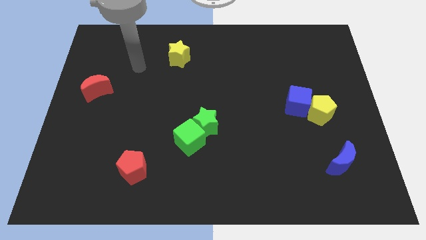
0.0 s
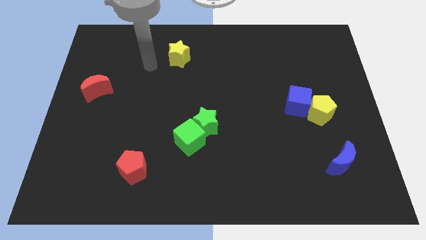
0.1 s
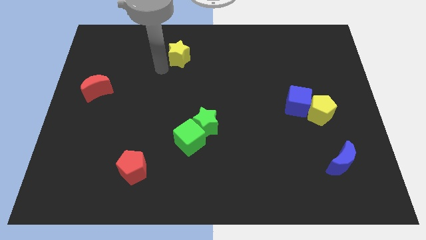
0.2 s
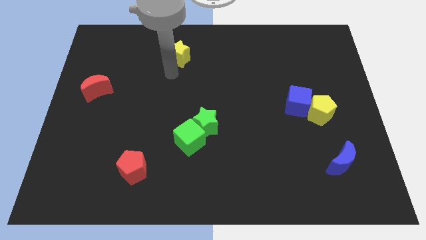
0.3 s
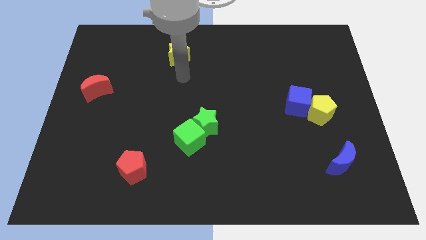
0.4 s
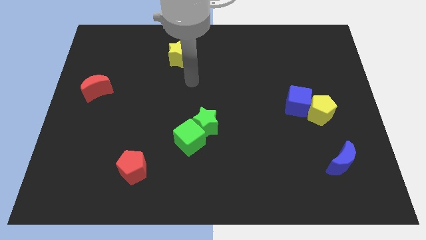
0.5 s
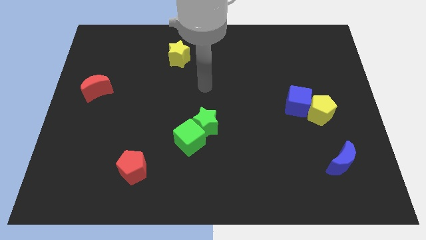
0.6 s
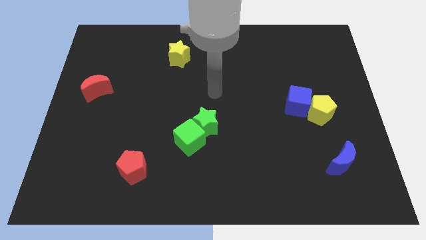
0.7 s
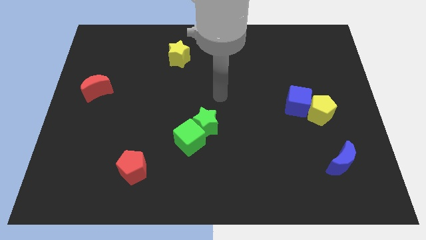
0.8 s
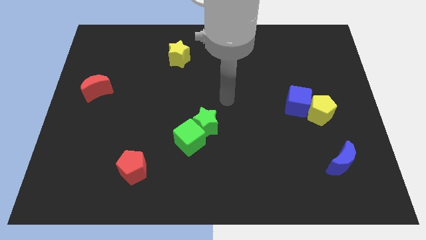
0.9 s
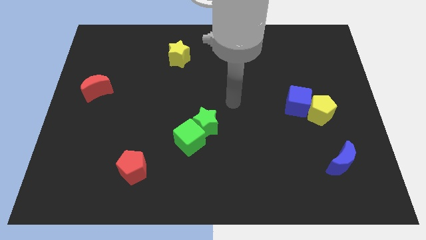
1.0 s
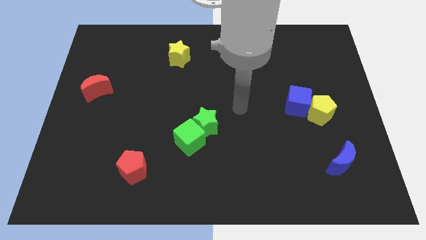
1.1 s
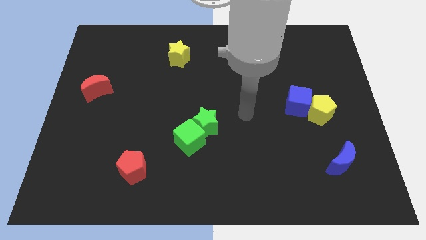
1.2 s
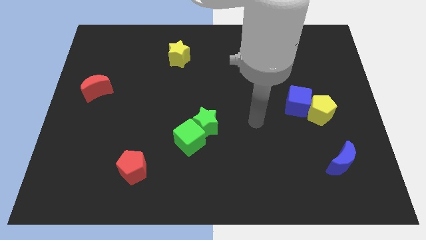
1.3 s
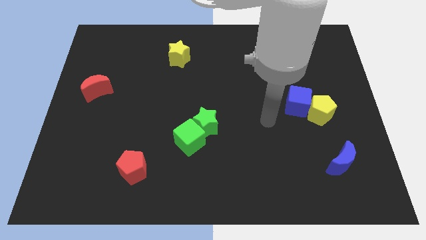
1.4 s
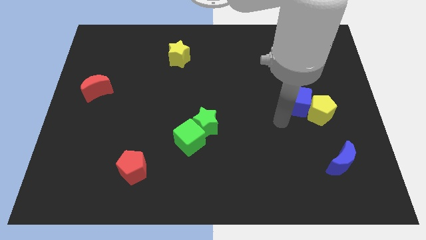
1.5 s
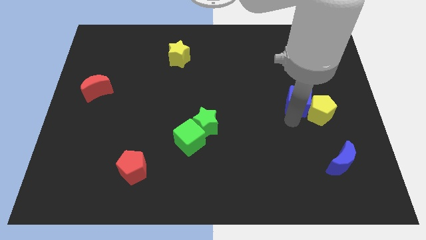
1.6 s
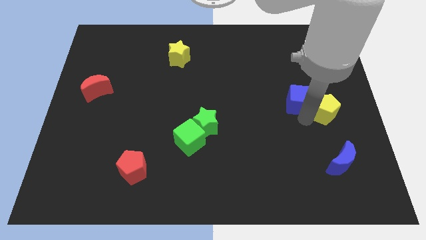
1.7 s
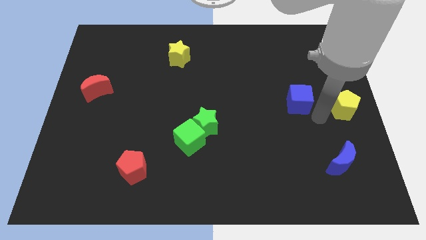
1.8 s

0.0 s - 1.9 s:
pull the blue cube apart from the yellow pentagon

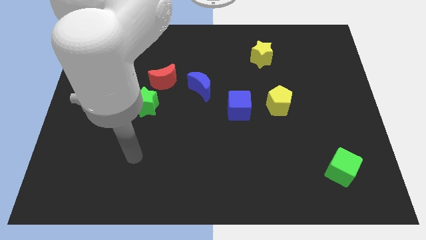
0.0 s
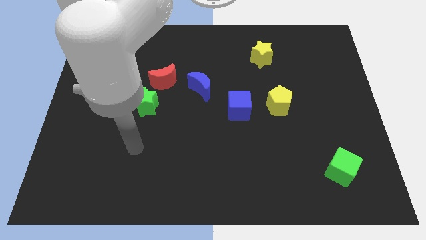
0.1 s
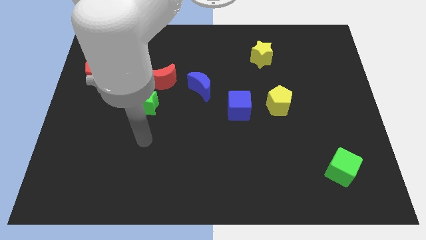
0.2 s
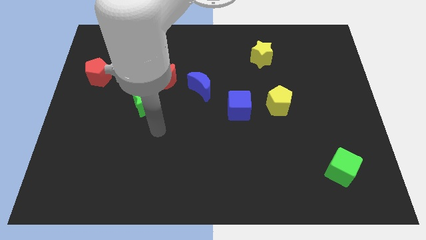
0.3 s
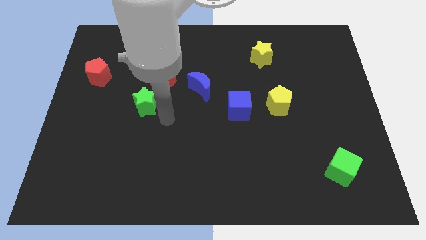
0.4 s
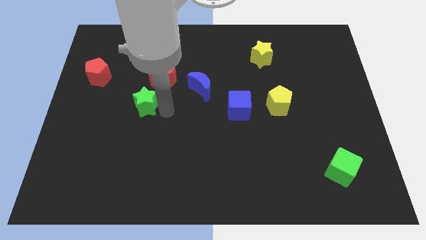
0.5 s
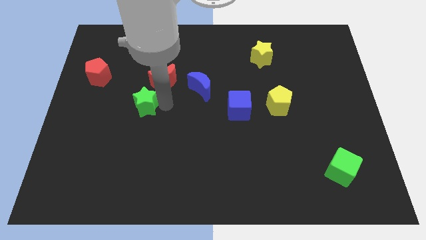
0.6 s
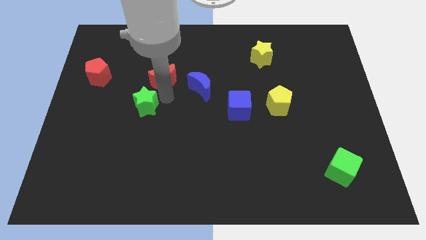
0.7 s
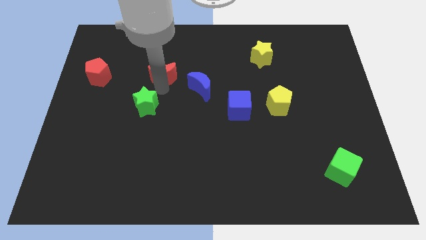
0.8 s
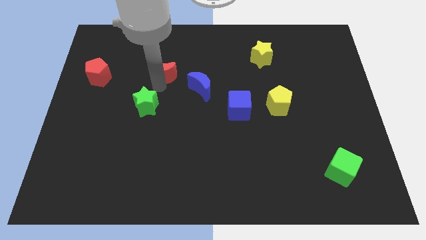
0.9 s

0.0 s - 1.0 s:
move the green star away from the red moon

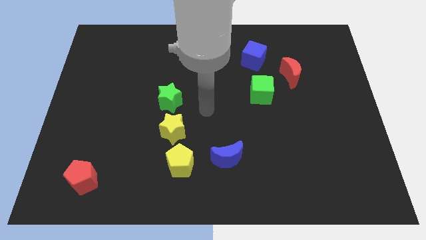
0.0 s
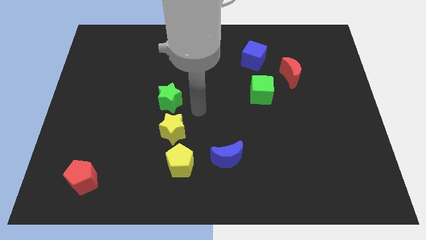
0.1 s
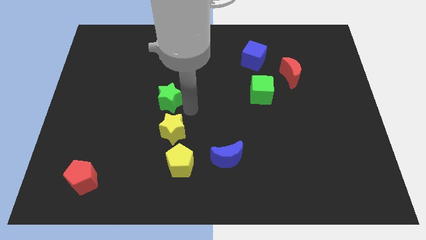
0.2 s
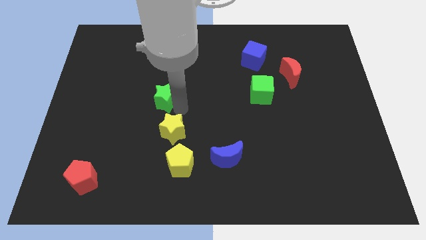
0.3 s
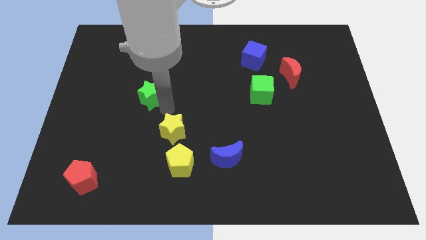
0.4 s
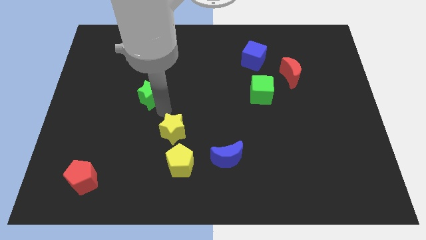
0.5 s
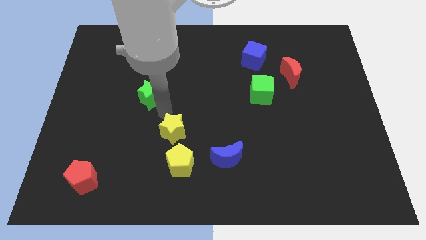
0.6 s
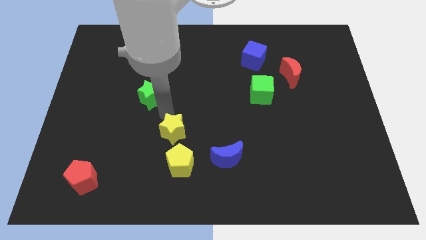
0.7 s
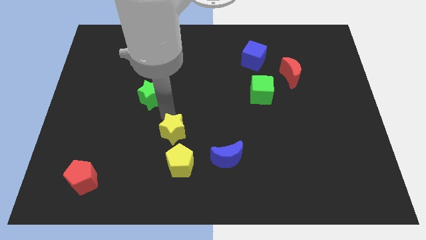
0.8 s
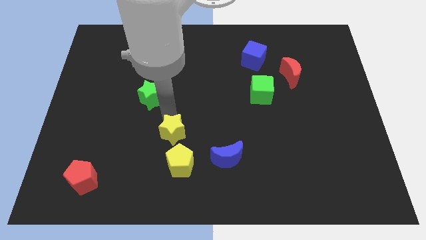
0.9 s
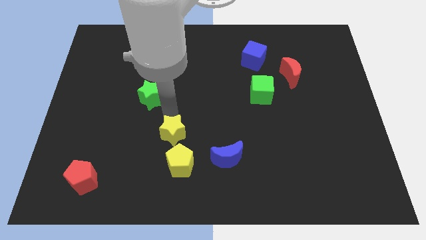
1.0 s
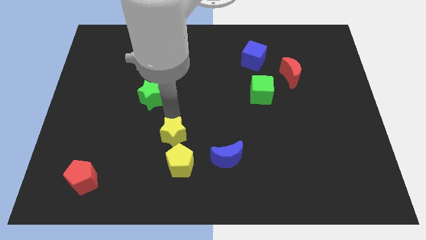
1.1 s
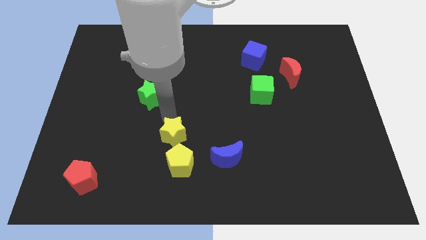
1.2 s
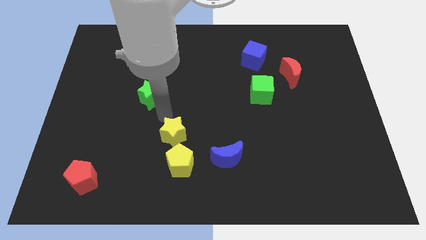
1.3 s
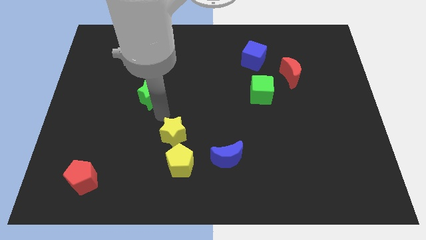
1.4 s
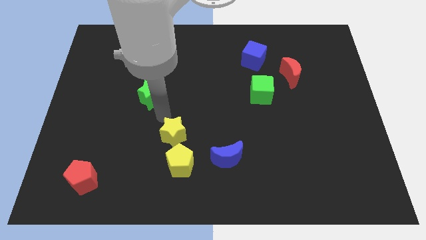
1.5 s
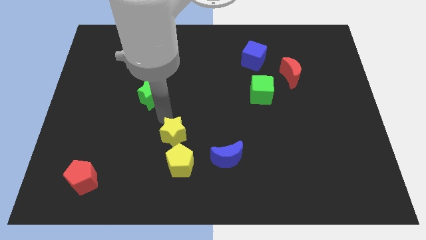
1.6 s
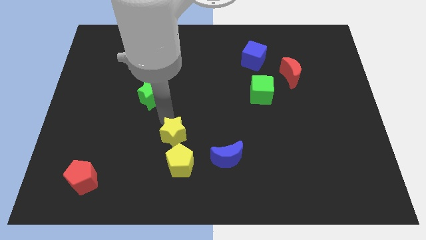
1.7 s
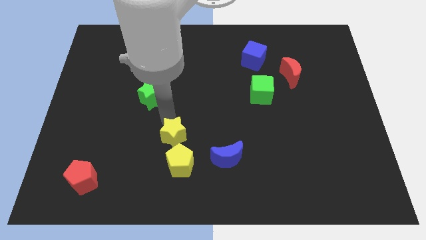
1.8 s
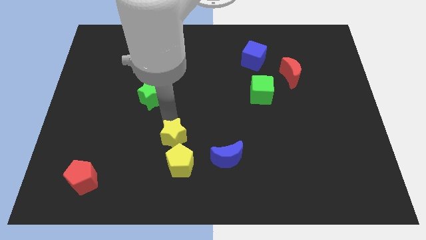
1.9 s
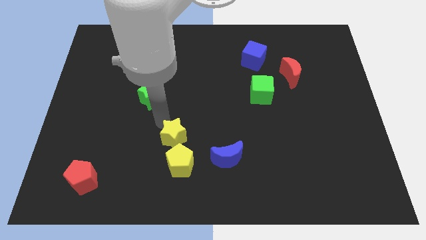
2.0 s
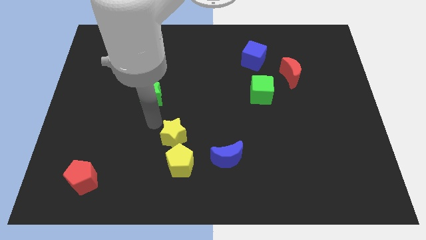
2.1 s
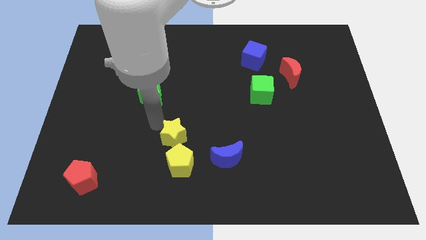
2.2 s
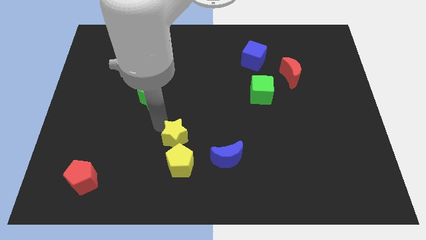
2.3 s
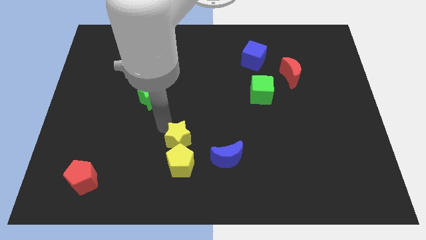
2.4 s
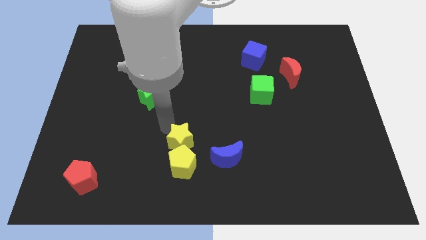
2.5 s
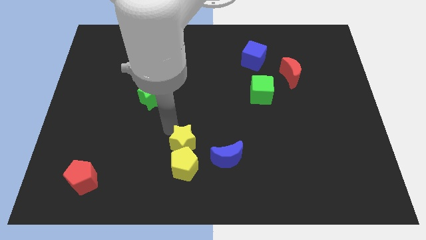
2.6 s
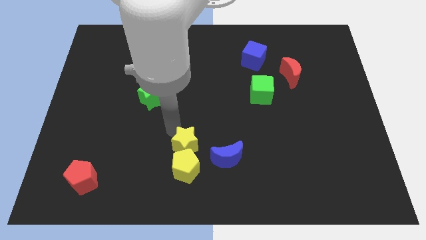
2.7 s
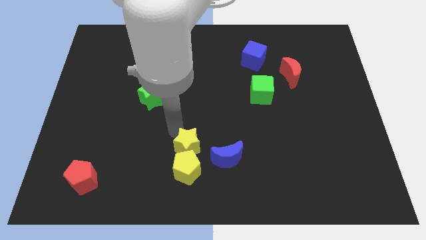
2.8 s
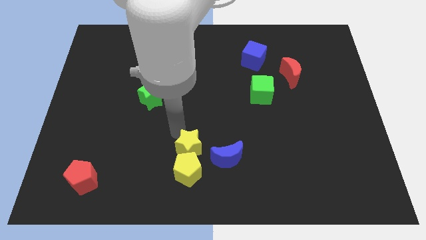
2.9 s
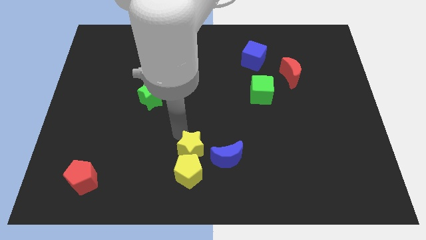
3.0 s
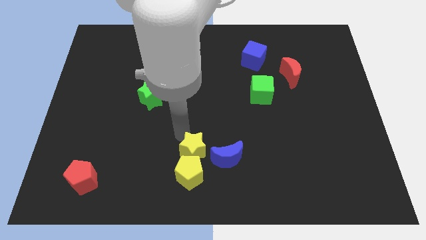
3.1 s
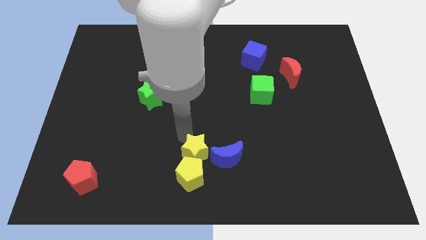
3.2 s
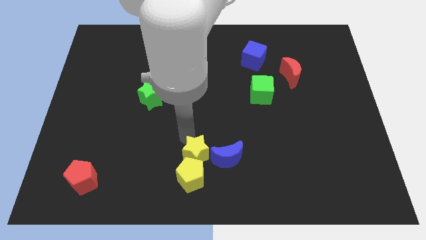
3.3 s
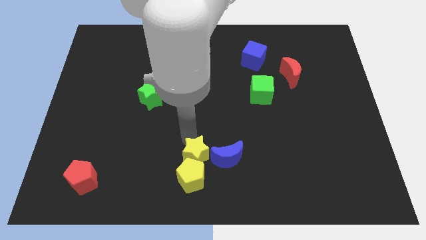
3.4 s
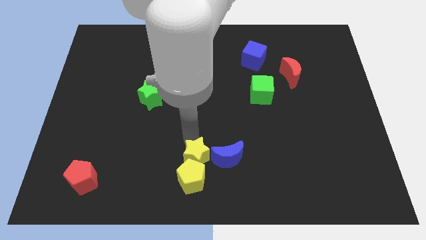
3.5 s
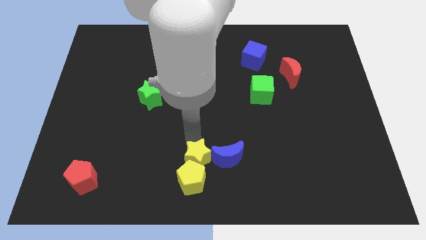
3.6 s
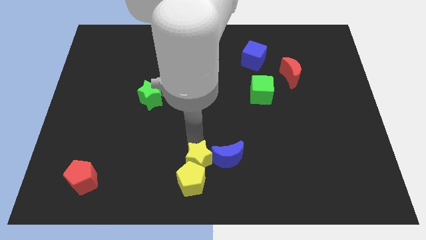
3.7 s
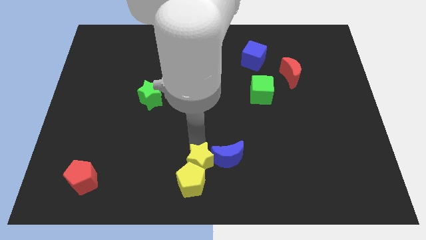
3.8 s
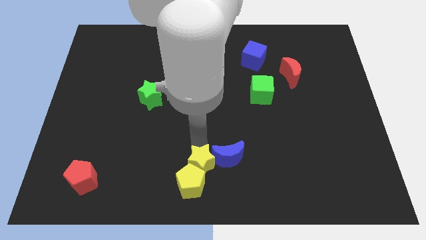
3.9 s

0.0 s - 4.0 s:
move the yellow star away from the yellow pentagon and green star

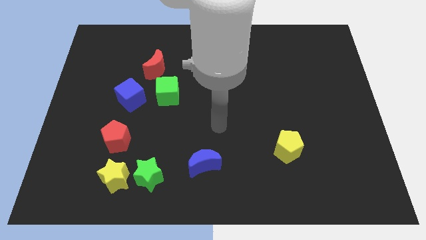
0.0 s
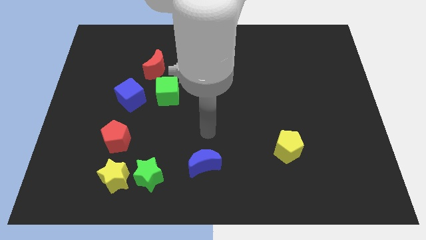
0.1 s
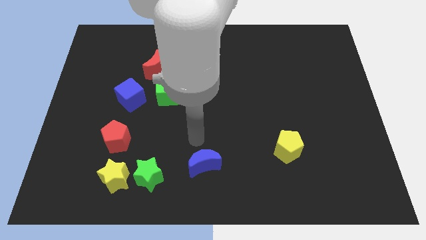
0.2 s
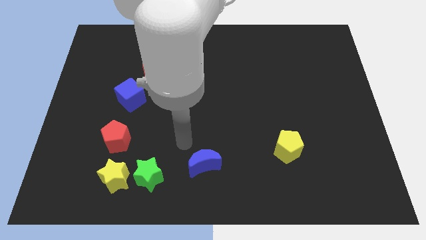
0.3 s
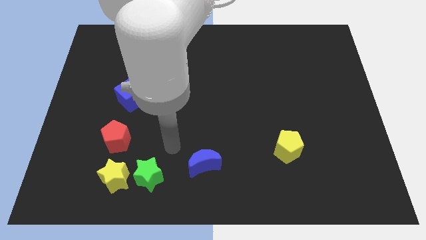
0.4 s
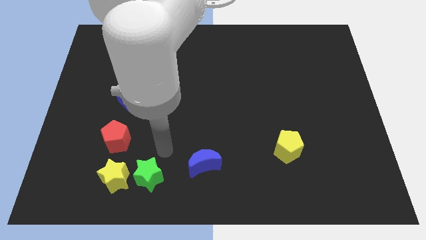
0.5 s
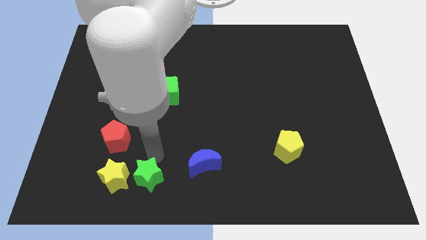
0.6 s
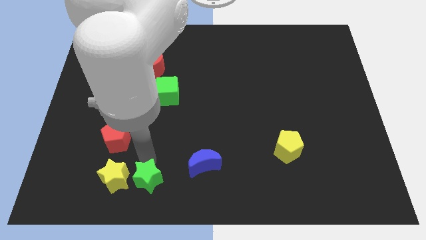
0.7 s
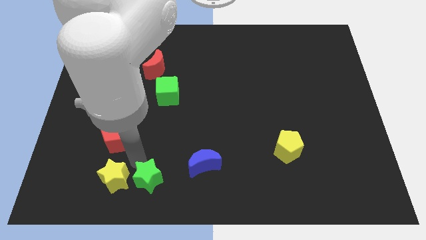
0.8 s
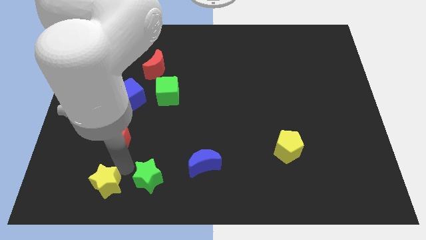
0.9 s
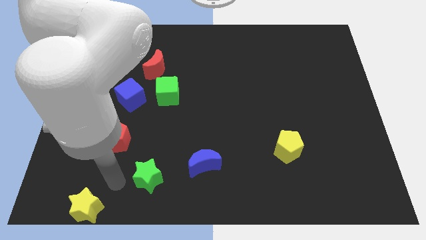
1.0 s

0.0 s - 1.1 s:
pull the green star apart from the yellow star

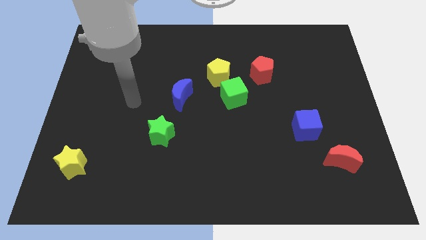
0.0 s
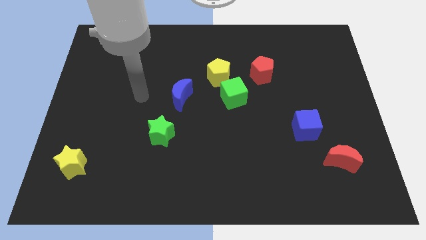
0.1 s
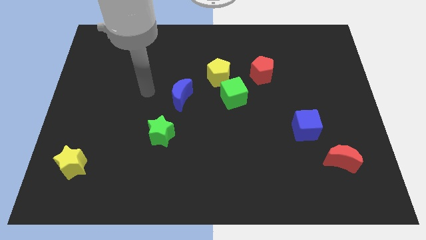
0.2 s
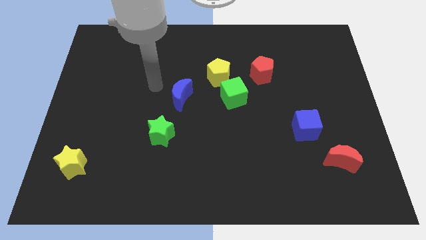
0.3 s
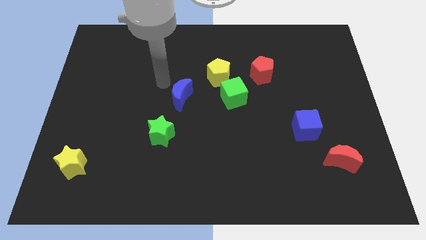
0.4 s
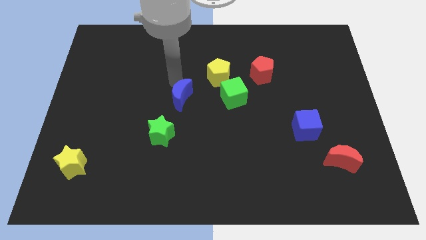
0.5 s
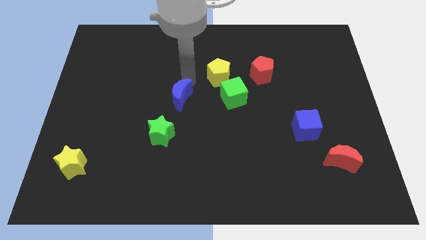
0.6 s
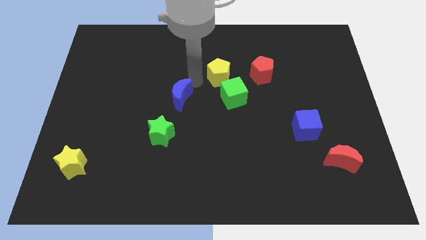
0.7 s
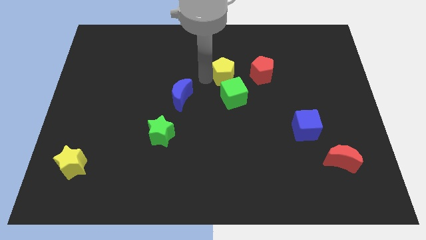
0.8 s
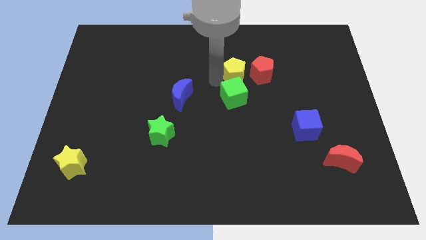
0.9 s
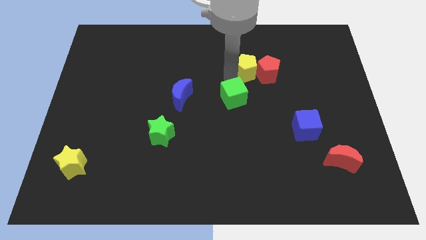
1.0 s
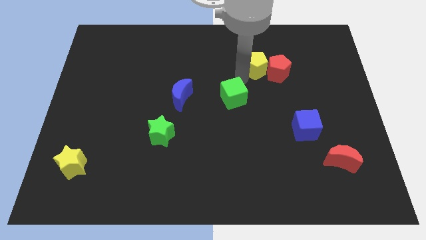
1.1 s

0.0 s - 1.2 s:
separate the green cube from the yellow pentagon

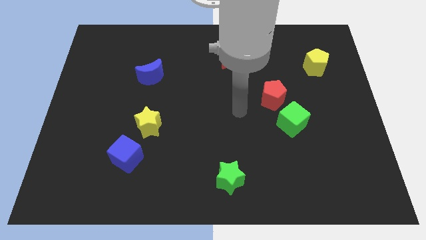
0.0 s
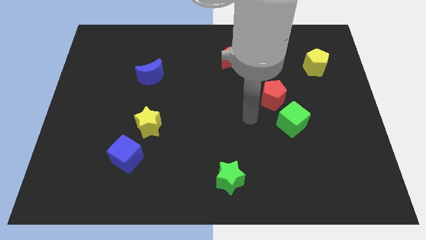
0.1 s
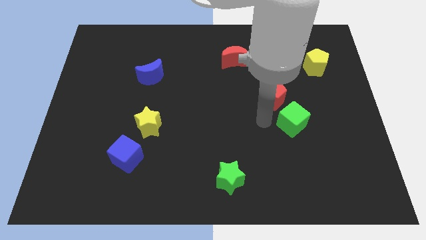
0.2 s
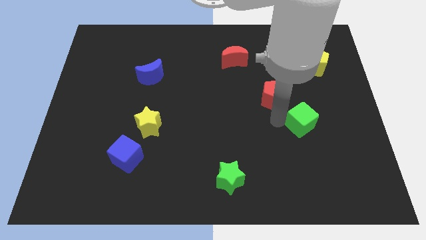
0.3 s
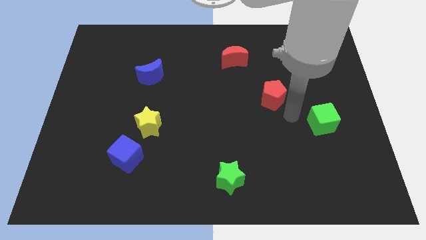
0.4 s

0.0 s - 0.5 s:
separate the red pentagon from the green cube
